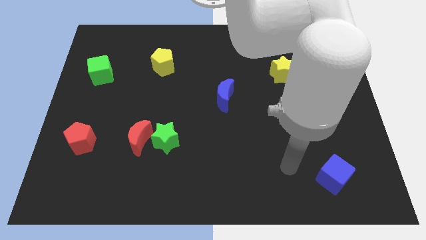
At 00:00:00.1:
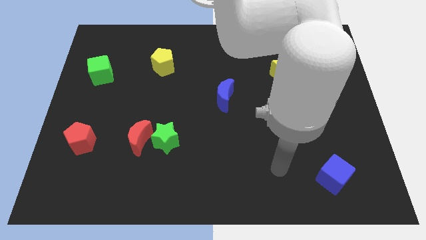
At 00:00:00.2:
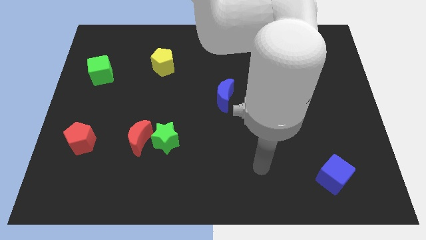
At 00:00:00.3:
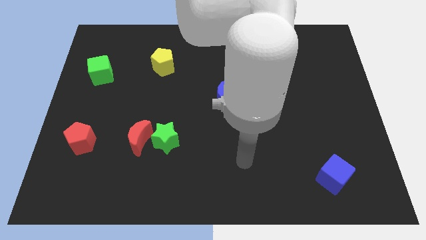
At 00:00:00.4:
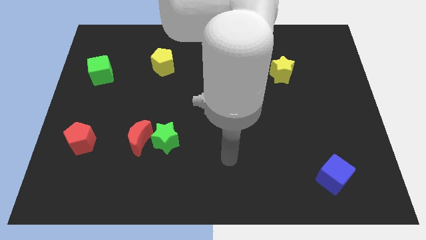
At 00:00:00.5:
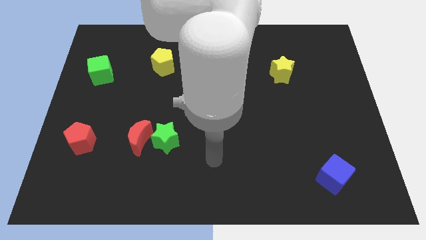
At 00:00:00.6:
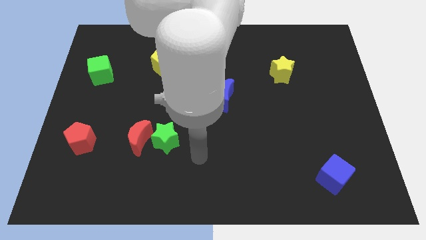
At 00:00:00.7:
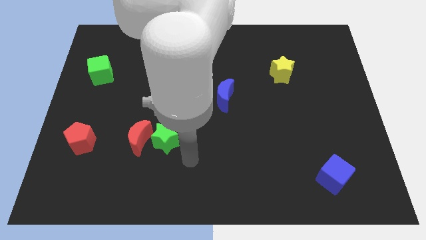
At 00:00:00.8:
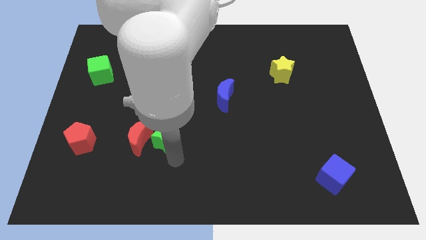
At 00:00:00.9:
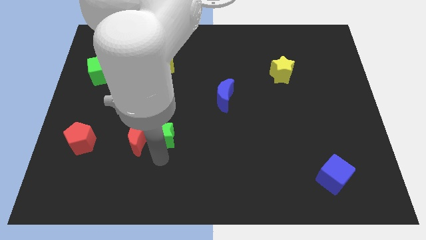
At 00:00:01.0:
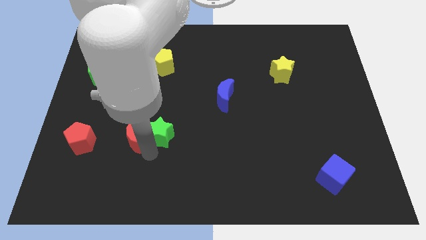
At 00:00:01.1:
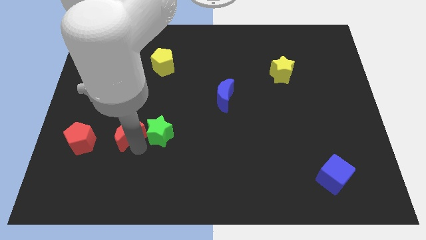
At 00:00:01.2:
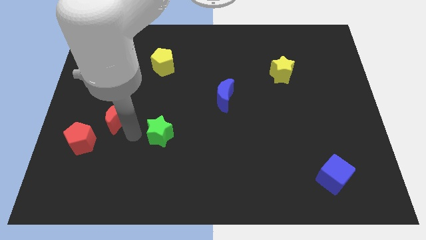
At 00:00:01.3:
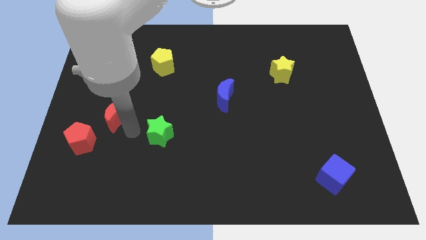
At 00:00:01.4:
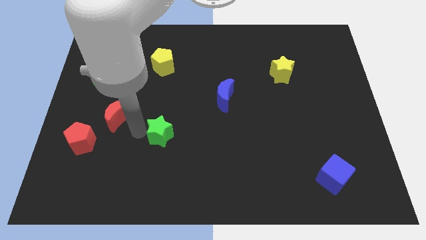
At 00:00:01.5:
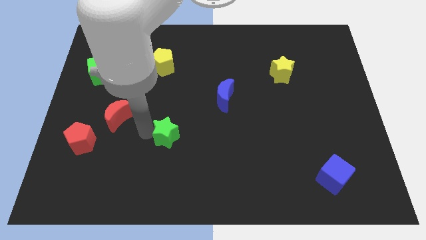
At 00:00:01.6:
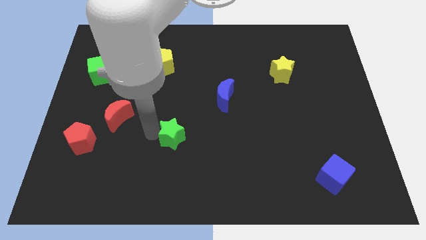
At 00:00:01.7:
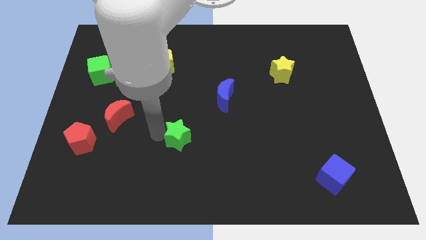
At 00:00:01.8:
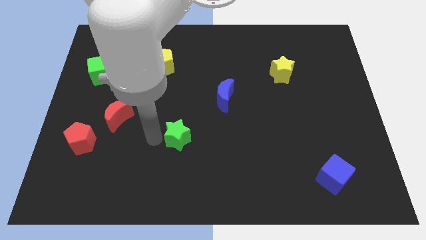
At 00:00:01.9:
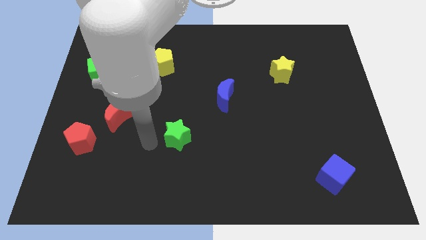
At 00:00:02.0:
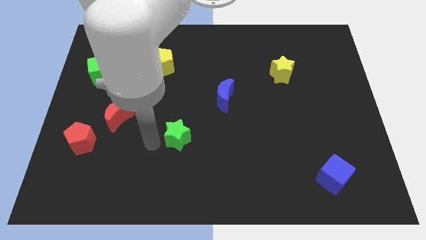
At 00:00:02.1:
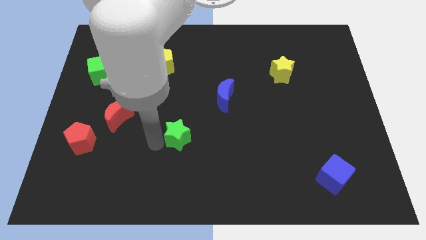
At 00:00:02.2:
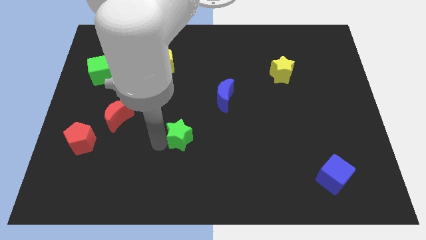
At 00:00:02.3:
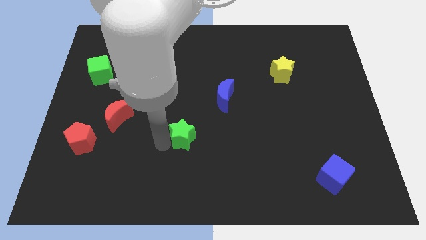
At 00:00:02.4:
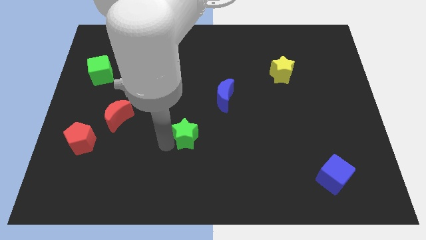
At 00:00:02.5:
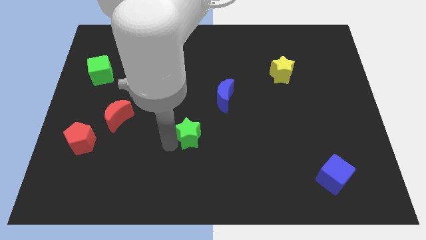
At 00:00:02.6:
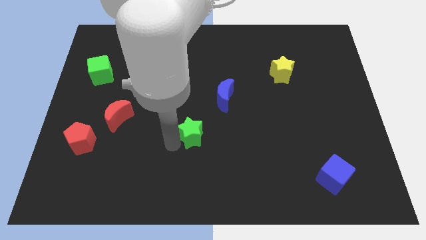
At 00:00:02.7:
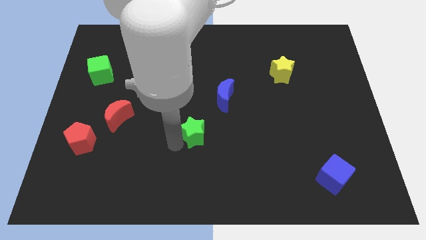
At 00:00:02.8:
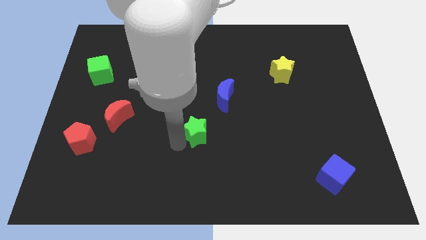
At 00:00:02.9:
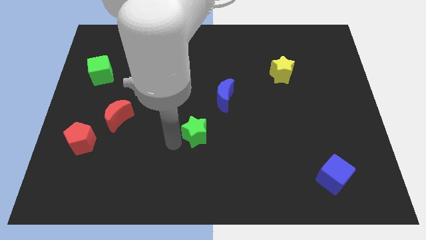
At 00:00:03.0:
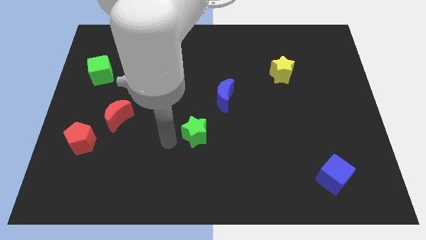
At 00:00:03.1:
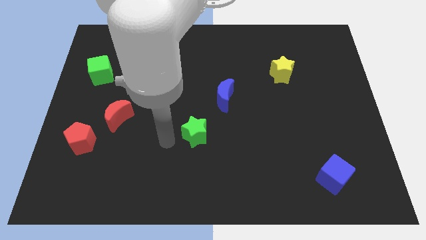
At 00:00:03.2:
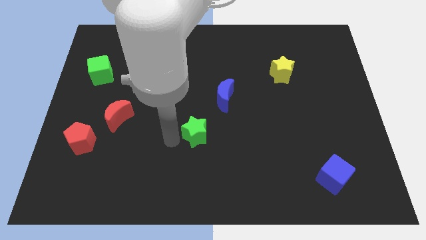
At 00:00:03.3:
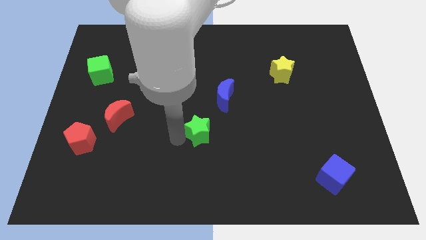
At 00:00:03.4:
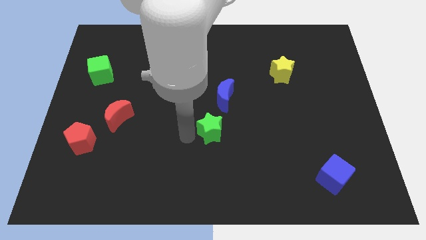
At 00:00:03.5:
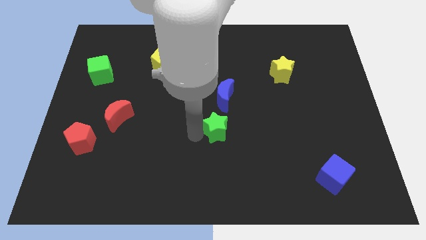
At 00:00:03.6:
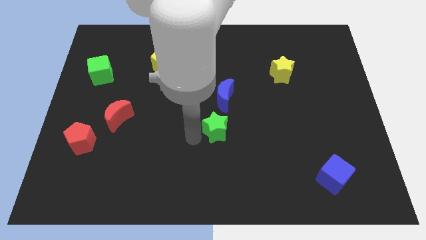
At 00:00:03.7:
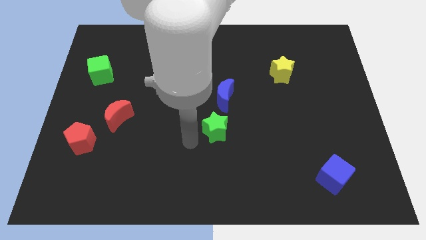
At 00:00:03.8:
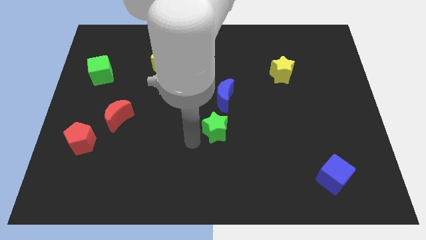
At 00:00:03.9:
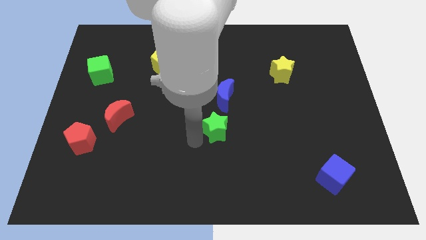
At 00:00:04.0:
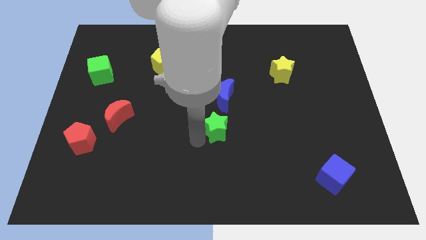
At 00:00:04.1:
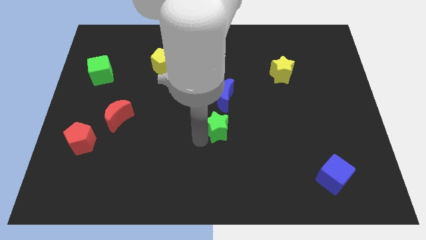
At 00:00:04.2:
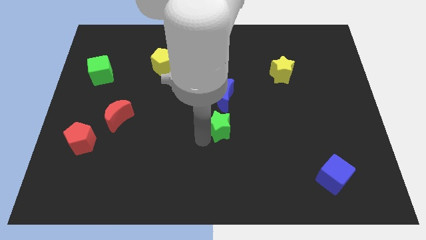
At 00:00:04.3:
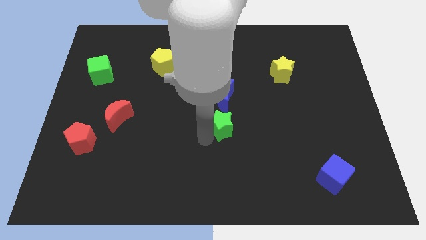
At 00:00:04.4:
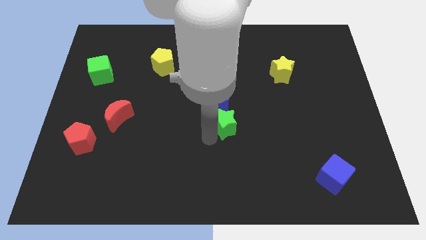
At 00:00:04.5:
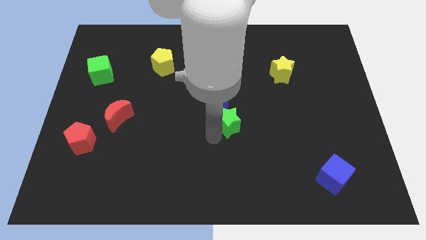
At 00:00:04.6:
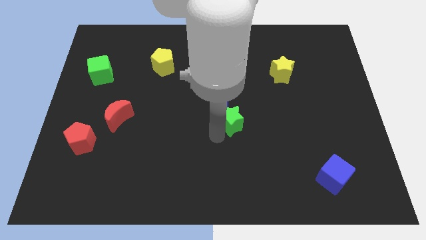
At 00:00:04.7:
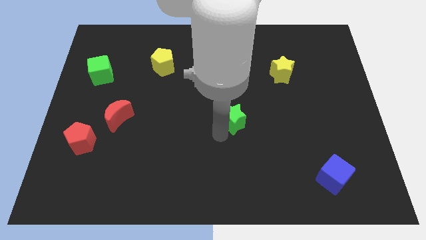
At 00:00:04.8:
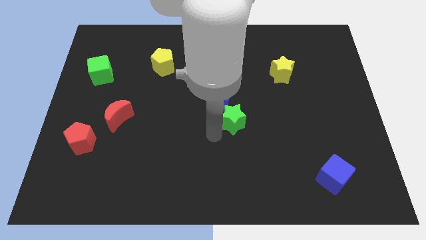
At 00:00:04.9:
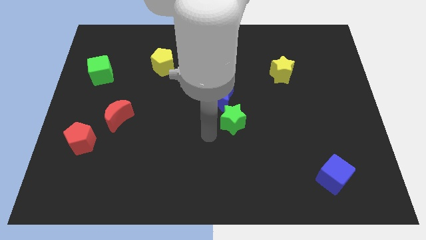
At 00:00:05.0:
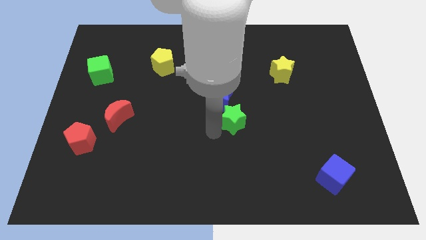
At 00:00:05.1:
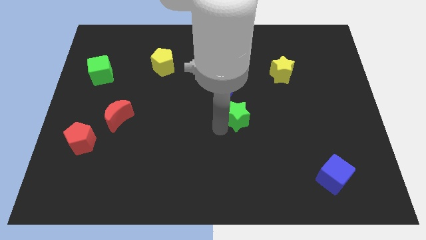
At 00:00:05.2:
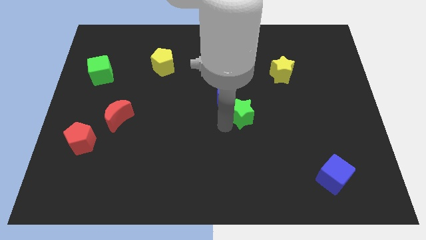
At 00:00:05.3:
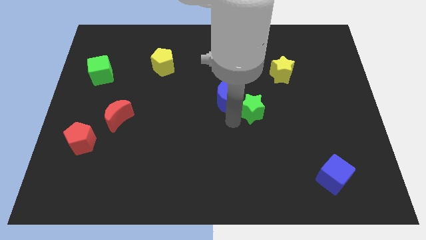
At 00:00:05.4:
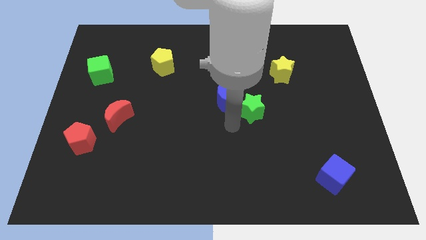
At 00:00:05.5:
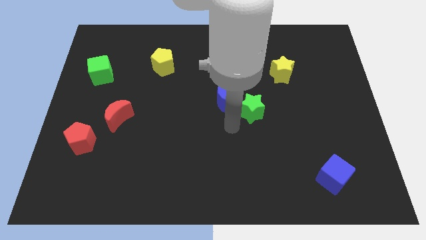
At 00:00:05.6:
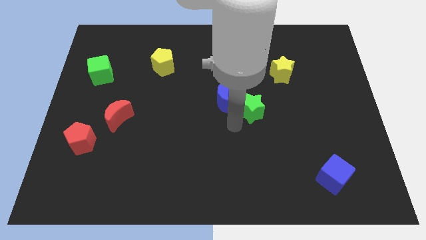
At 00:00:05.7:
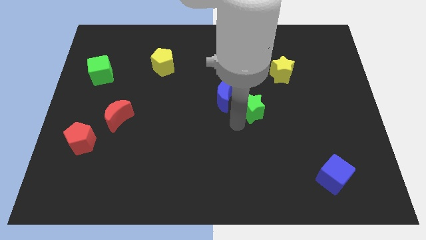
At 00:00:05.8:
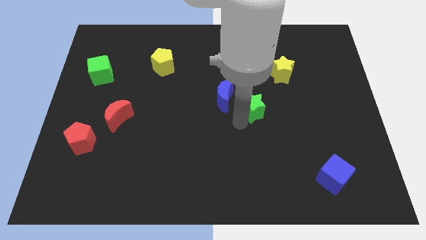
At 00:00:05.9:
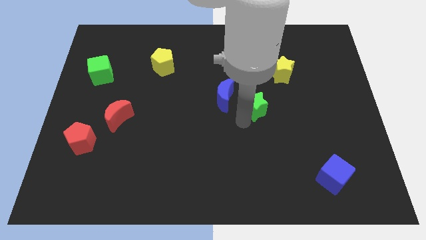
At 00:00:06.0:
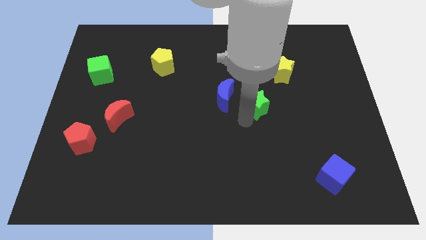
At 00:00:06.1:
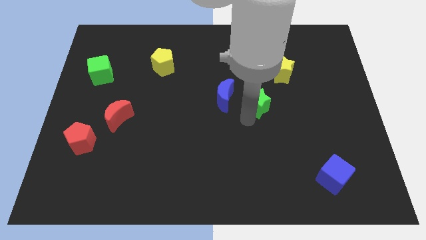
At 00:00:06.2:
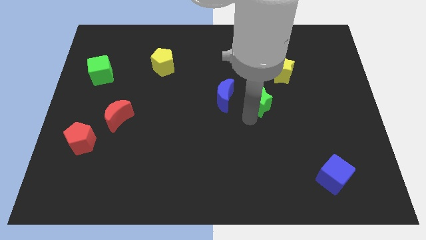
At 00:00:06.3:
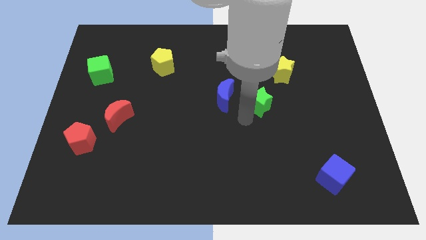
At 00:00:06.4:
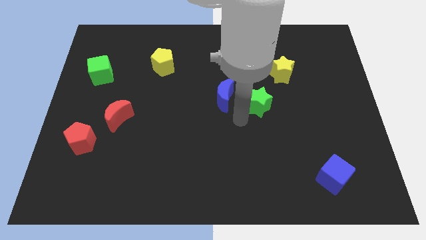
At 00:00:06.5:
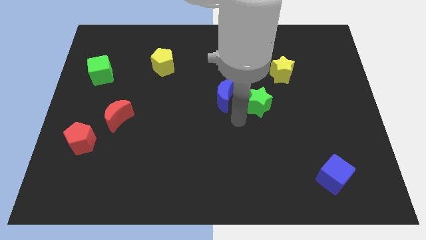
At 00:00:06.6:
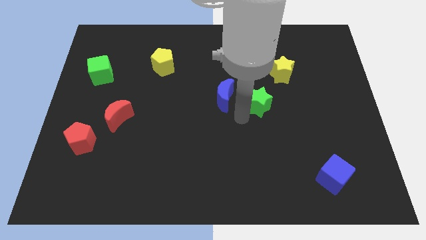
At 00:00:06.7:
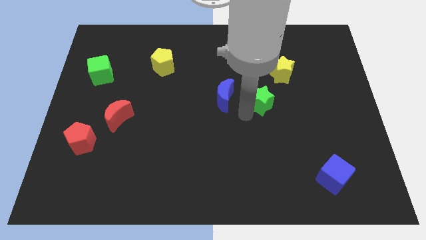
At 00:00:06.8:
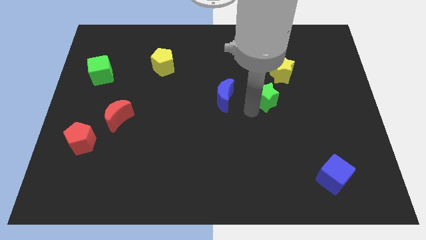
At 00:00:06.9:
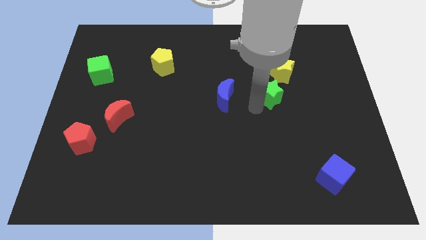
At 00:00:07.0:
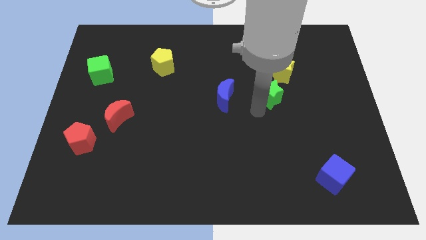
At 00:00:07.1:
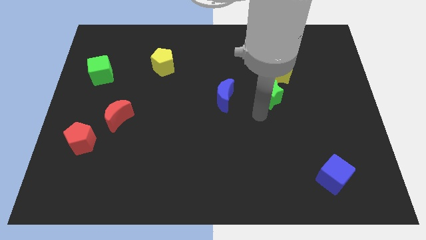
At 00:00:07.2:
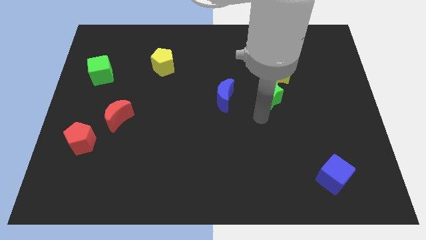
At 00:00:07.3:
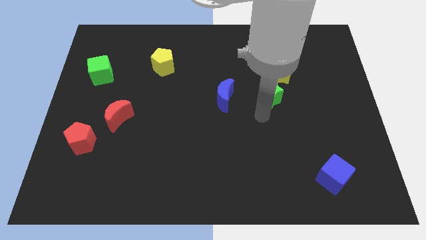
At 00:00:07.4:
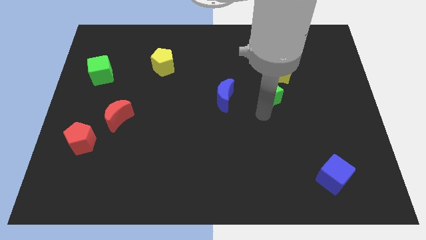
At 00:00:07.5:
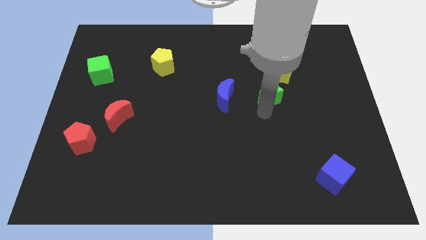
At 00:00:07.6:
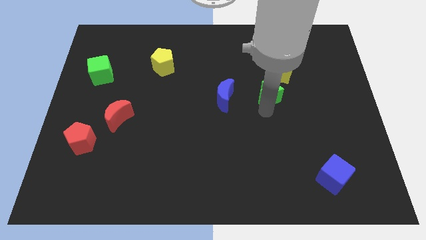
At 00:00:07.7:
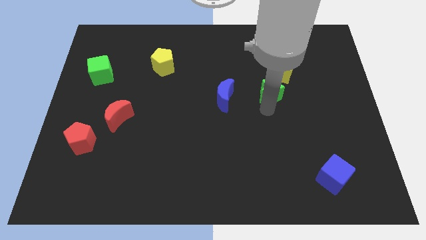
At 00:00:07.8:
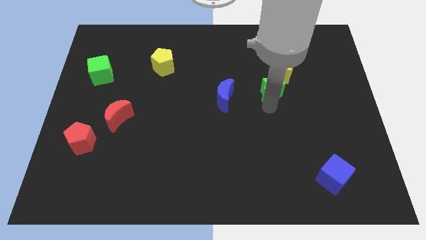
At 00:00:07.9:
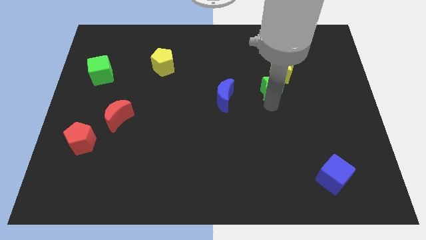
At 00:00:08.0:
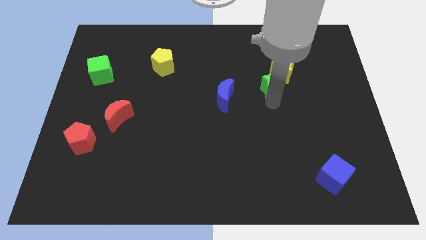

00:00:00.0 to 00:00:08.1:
move the green star towards the yellow star
